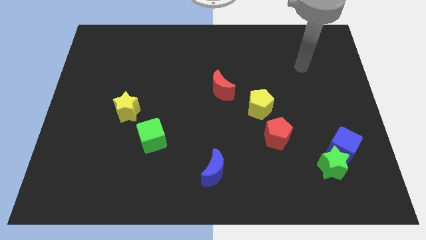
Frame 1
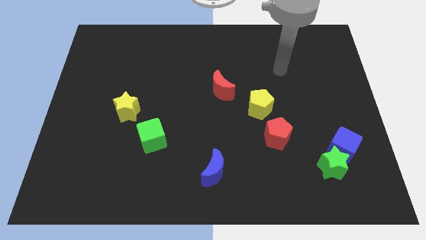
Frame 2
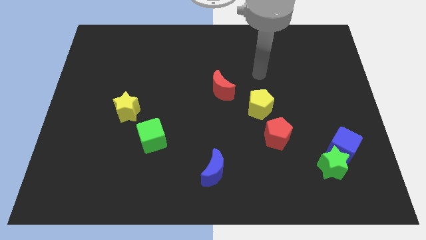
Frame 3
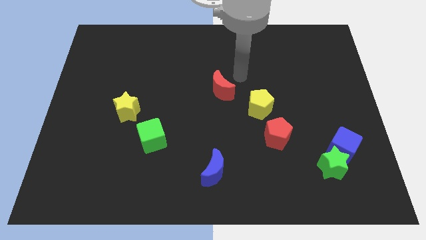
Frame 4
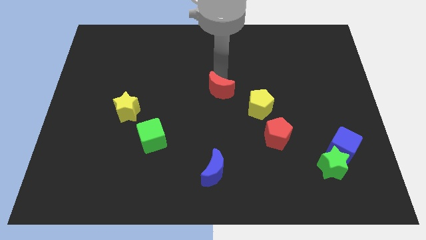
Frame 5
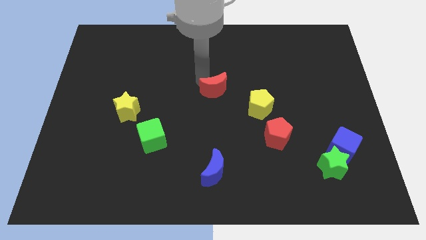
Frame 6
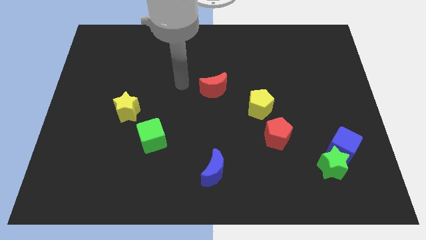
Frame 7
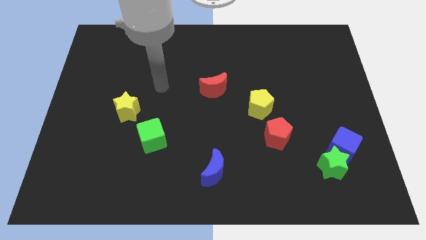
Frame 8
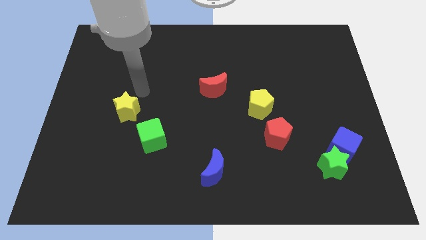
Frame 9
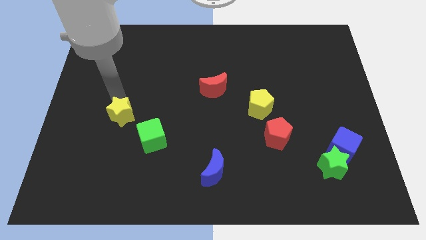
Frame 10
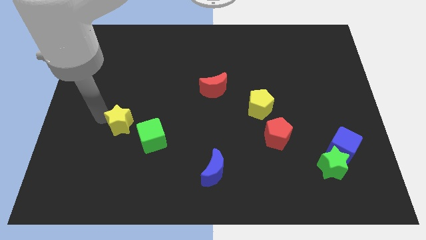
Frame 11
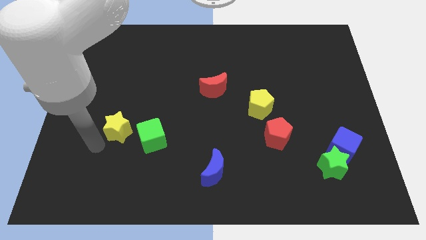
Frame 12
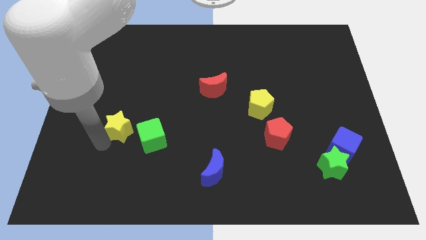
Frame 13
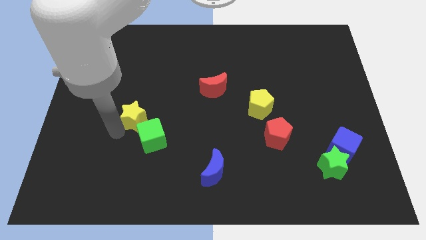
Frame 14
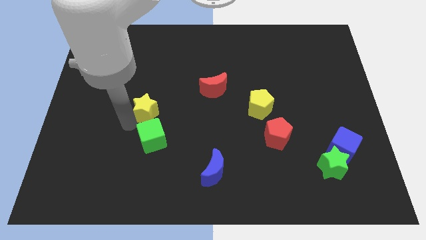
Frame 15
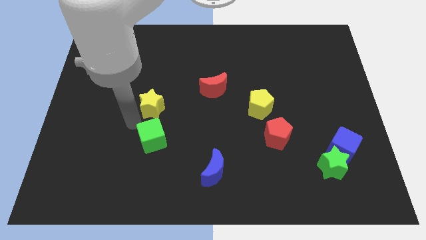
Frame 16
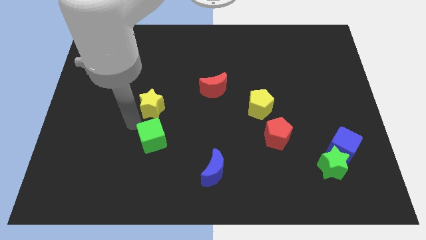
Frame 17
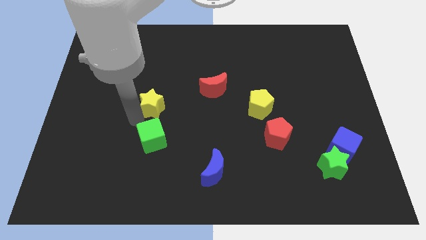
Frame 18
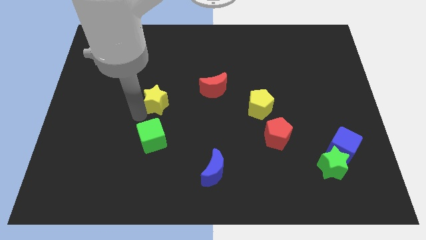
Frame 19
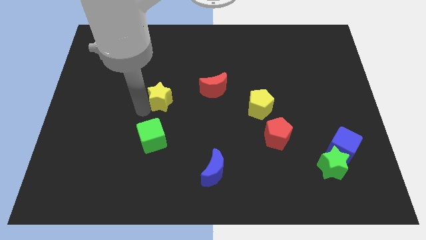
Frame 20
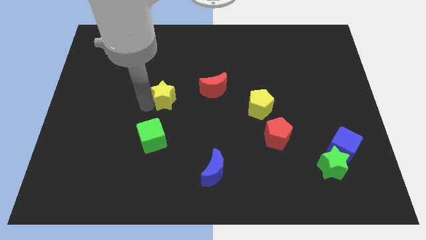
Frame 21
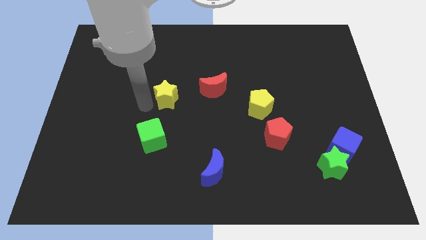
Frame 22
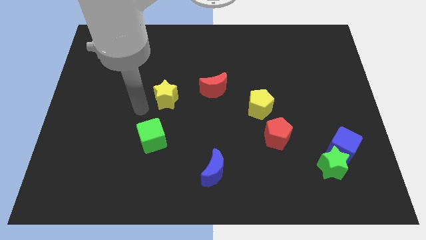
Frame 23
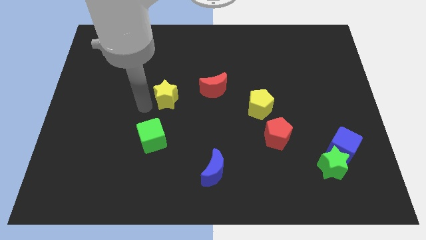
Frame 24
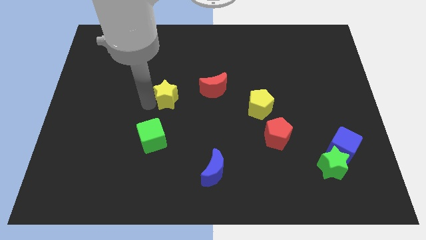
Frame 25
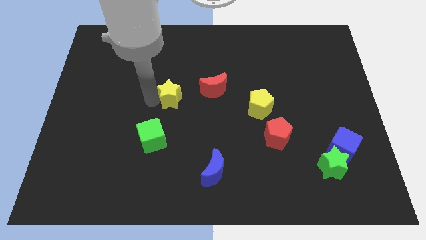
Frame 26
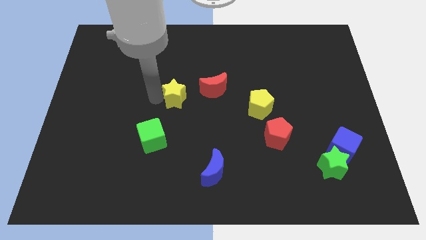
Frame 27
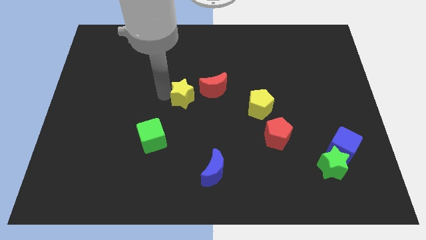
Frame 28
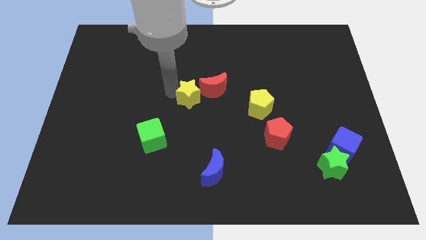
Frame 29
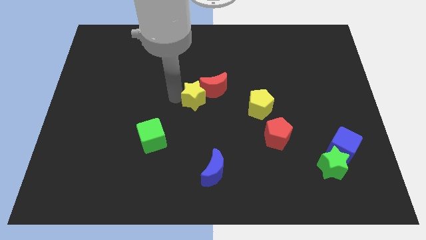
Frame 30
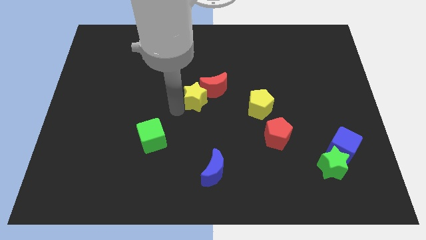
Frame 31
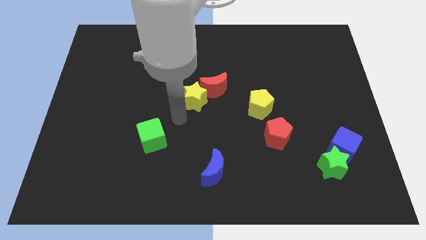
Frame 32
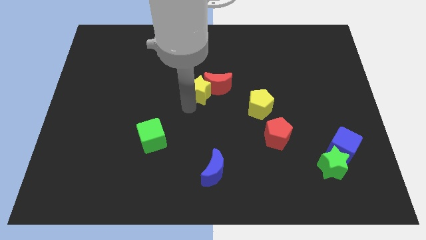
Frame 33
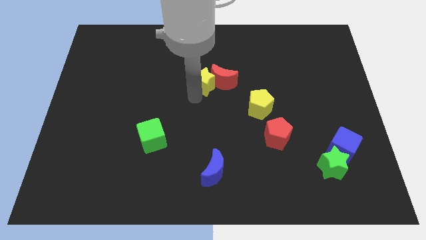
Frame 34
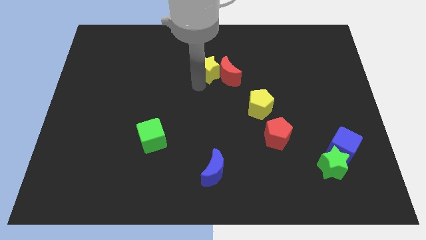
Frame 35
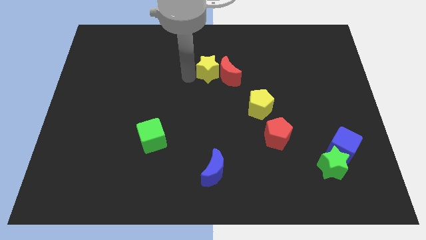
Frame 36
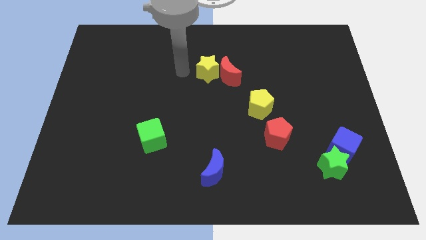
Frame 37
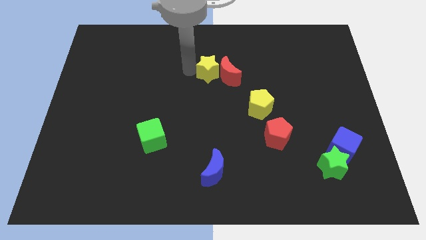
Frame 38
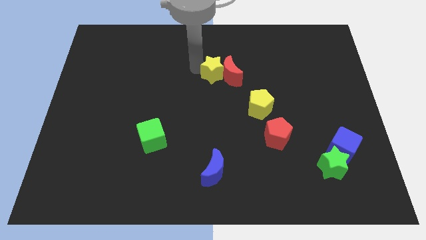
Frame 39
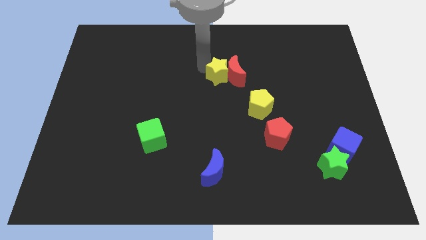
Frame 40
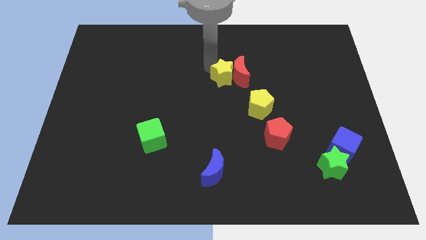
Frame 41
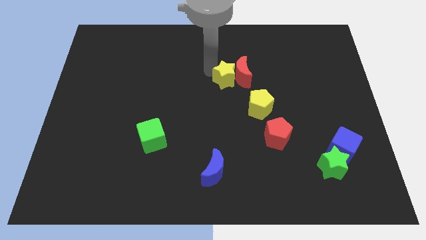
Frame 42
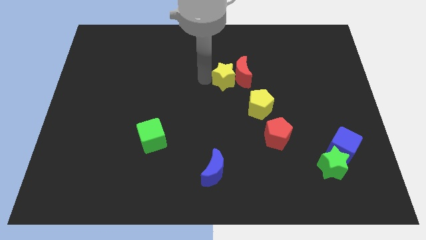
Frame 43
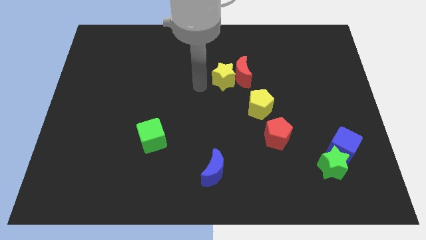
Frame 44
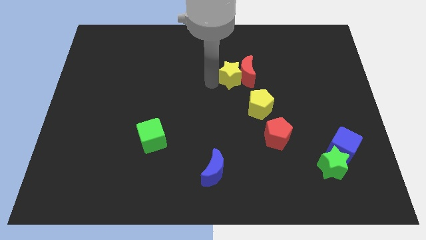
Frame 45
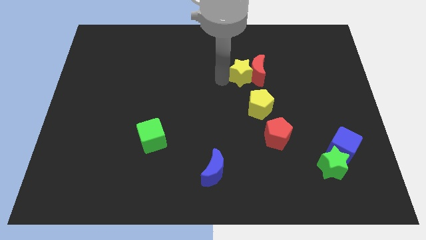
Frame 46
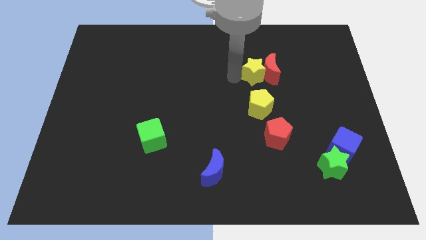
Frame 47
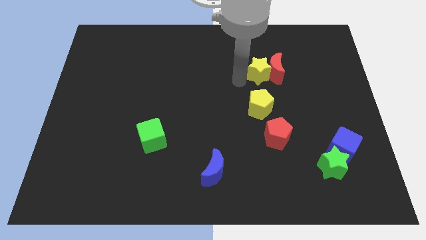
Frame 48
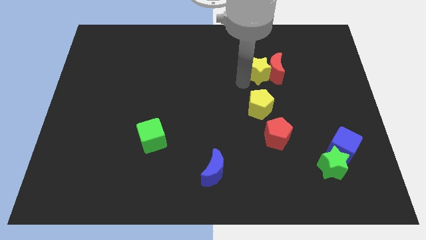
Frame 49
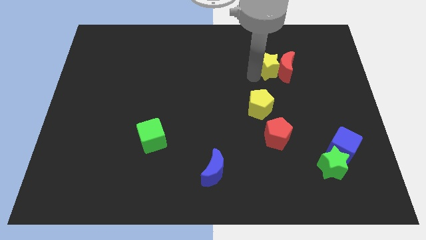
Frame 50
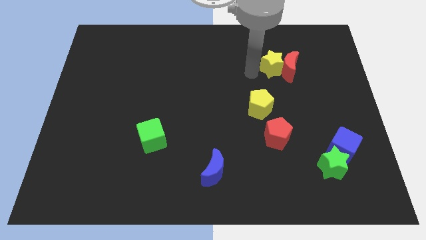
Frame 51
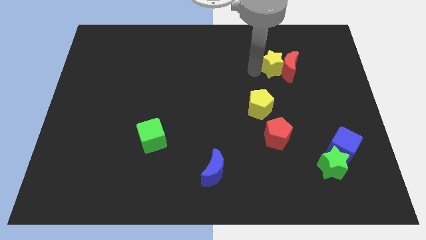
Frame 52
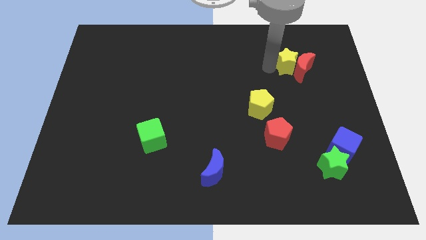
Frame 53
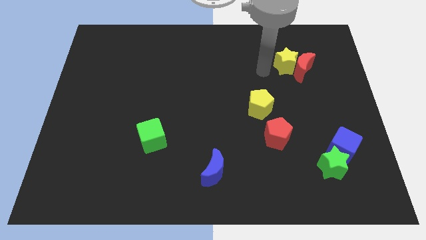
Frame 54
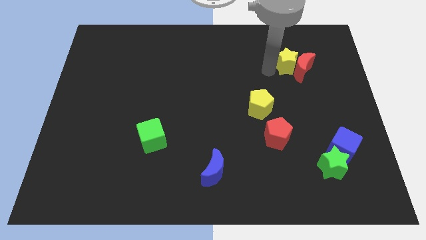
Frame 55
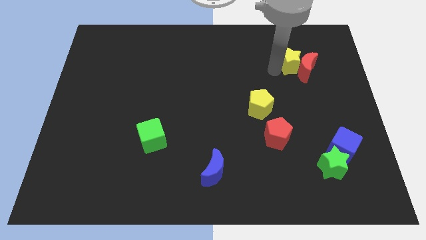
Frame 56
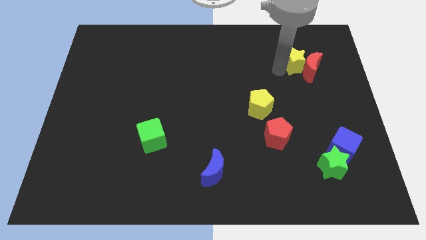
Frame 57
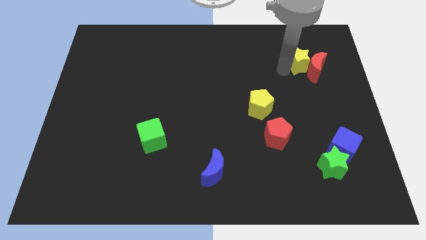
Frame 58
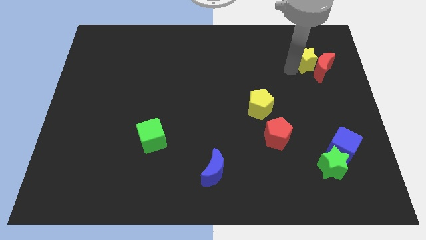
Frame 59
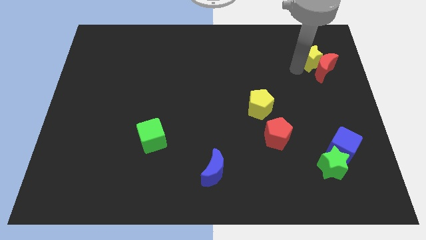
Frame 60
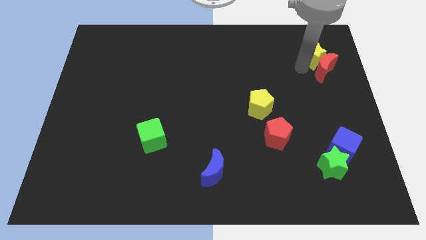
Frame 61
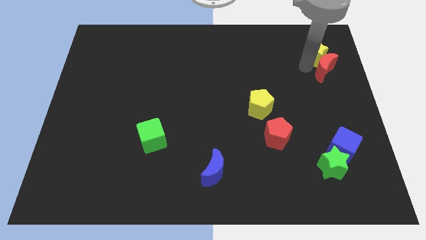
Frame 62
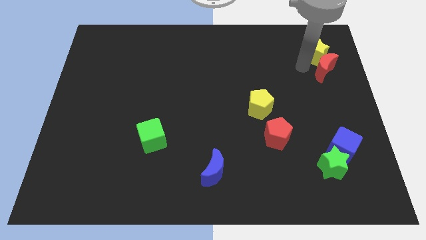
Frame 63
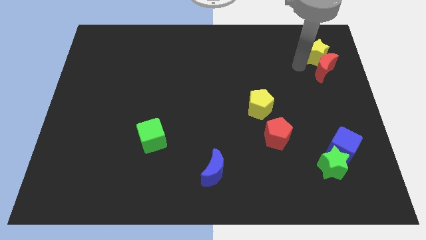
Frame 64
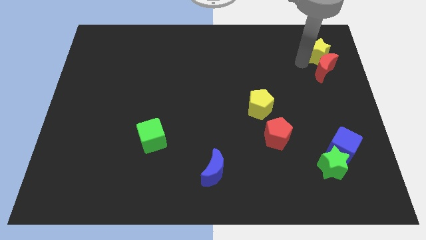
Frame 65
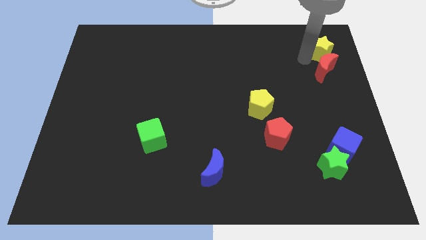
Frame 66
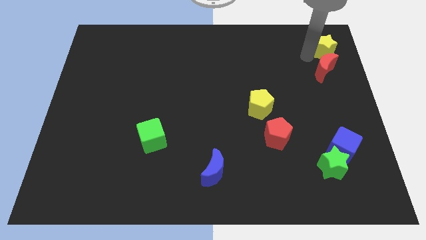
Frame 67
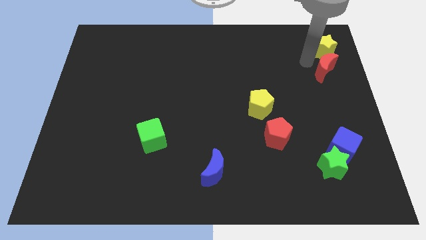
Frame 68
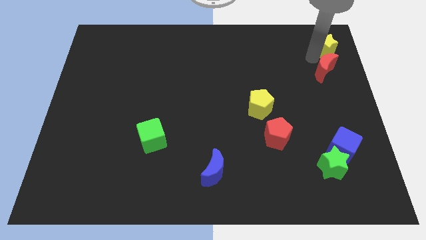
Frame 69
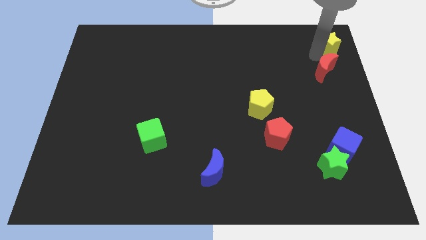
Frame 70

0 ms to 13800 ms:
push the yellow star to the upper right corner
